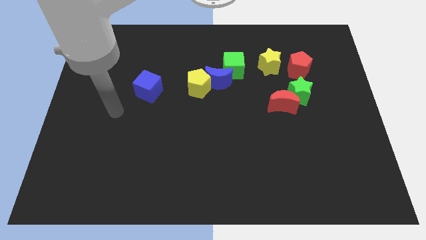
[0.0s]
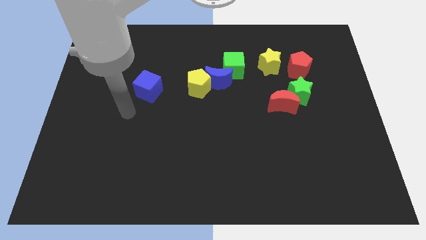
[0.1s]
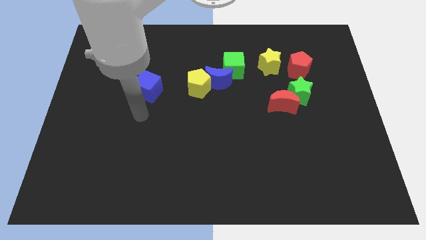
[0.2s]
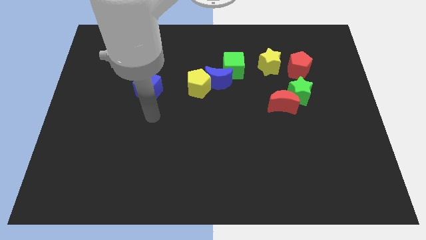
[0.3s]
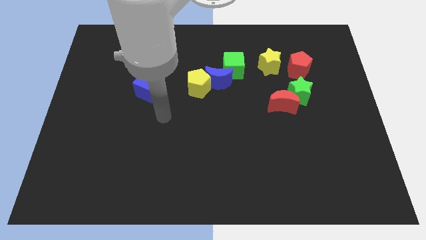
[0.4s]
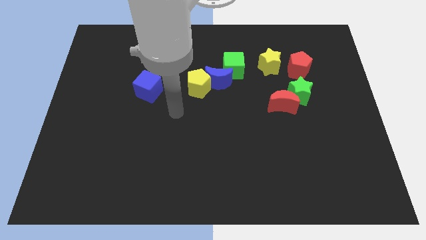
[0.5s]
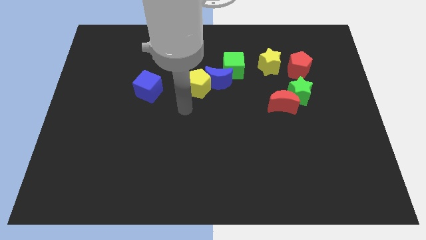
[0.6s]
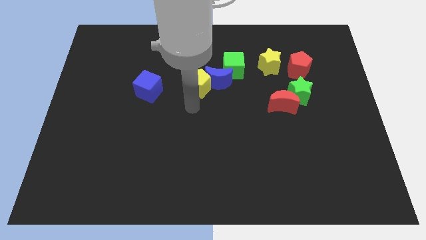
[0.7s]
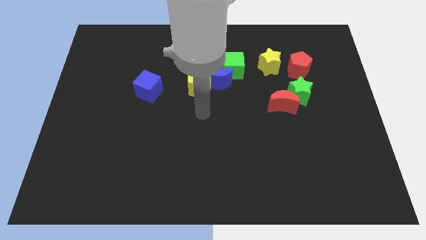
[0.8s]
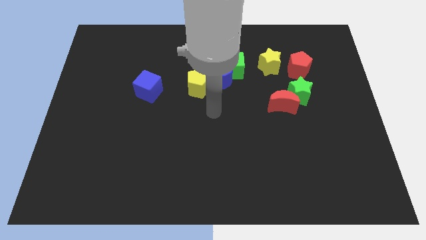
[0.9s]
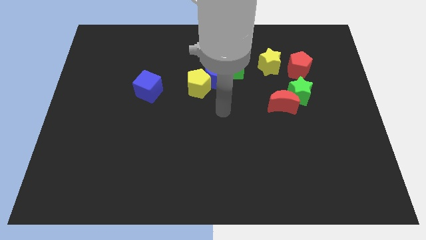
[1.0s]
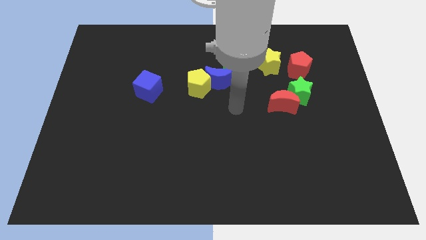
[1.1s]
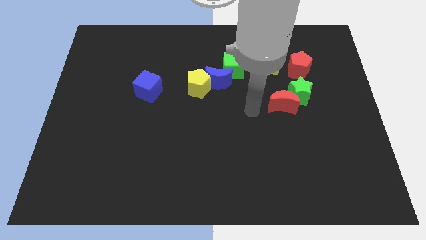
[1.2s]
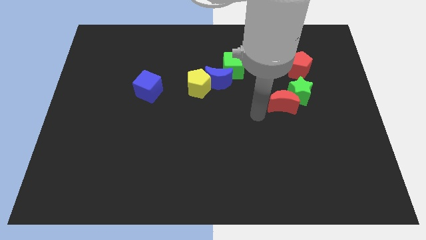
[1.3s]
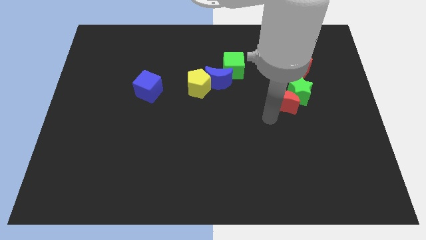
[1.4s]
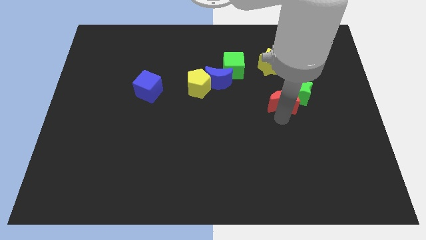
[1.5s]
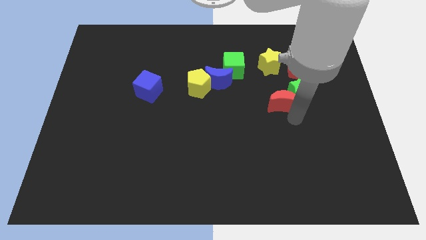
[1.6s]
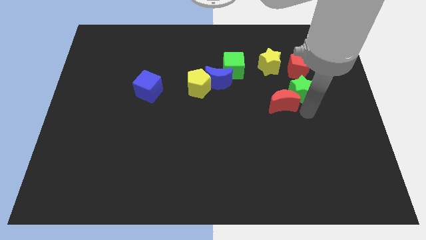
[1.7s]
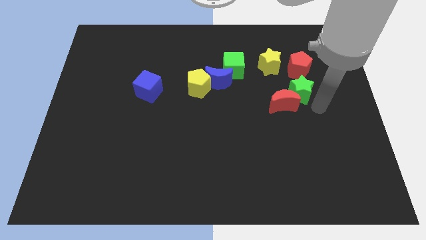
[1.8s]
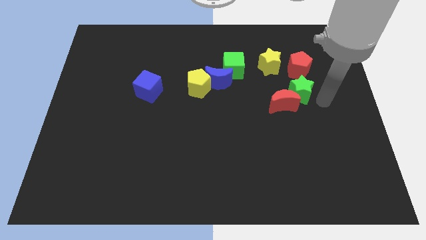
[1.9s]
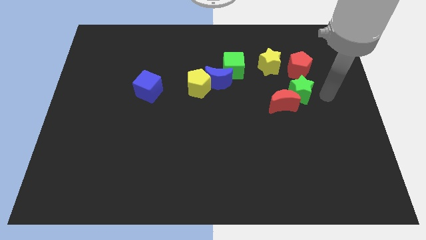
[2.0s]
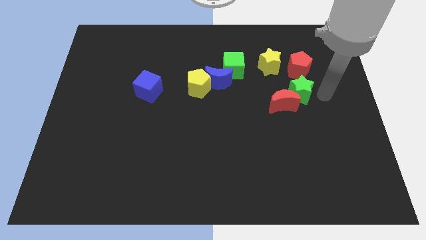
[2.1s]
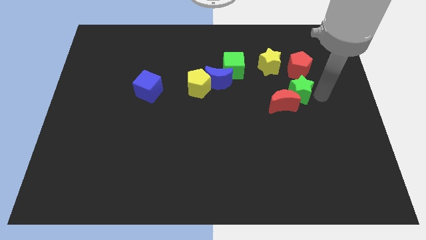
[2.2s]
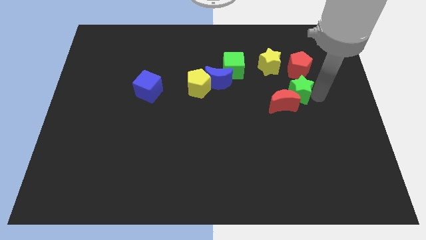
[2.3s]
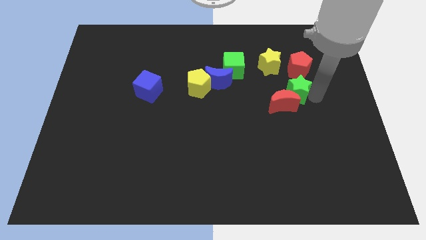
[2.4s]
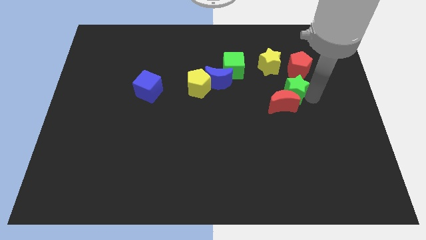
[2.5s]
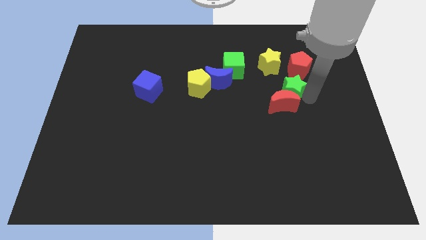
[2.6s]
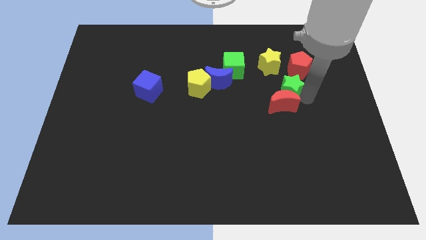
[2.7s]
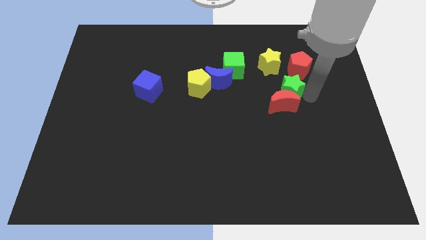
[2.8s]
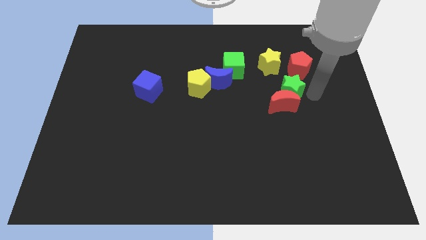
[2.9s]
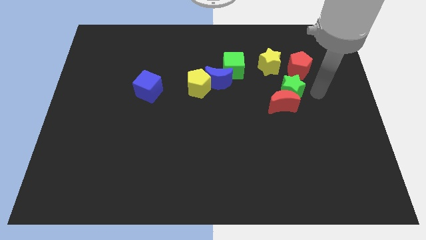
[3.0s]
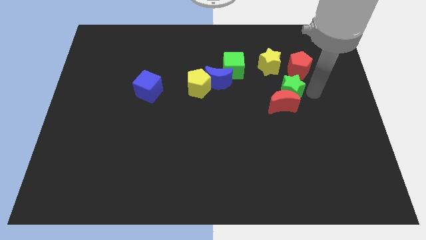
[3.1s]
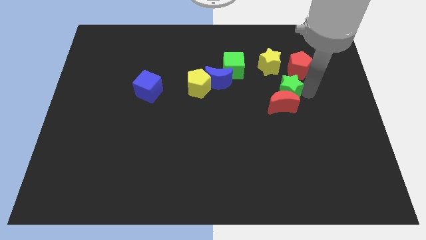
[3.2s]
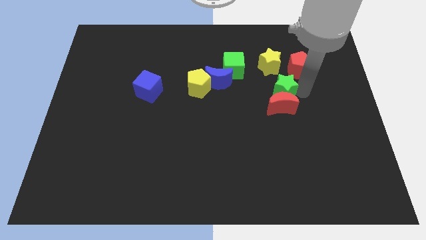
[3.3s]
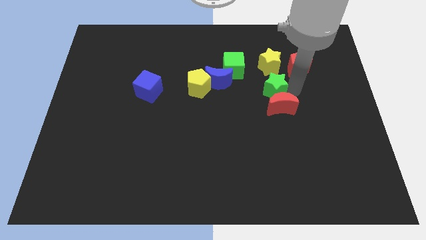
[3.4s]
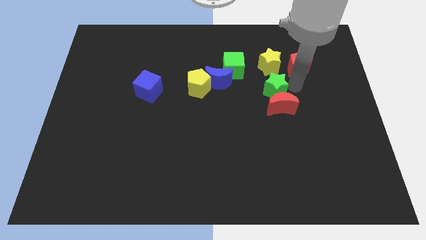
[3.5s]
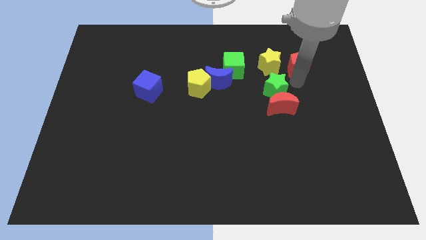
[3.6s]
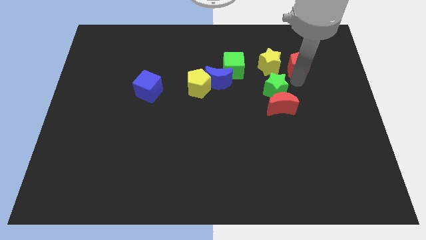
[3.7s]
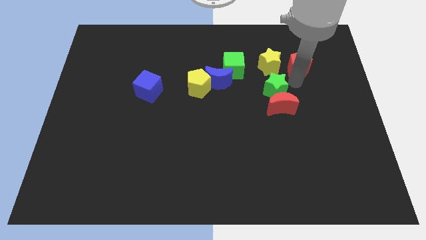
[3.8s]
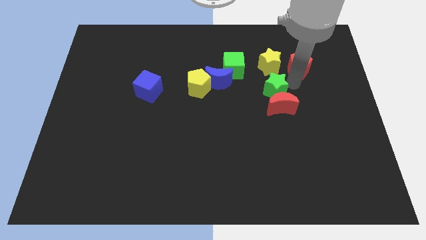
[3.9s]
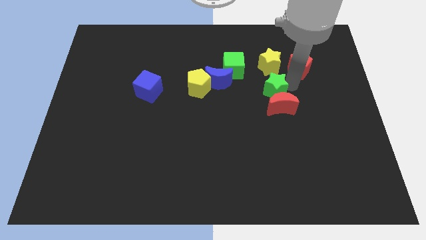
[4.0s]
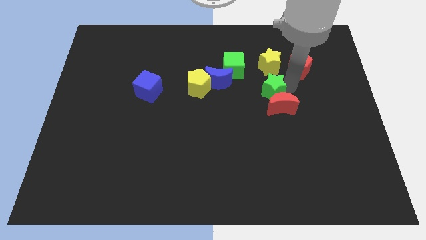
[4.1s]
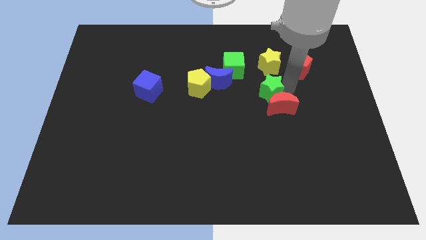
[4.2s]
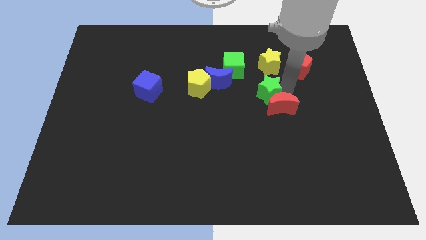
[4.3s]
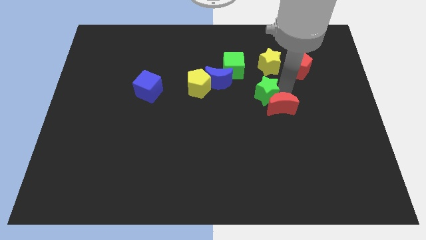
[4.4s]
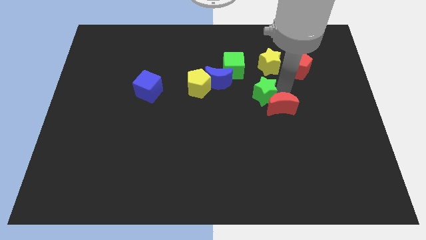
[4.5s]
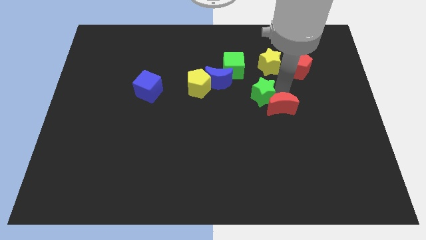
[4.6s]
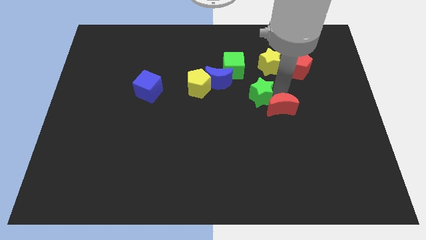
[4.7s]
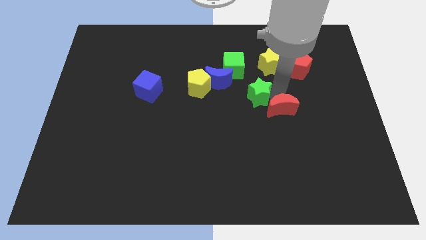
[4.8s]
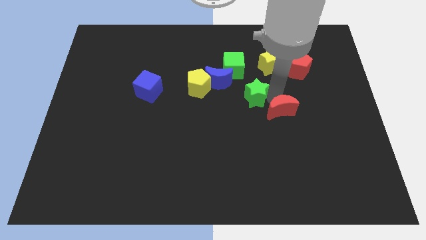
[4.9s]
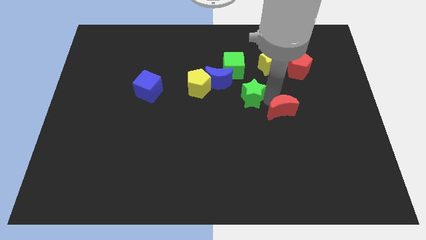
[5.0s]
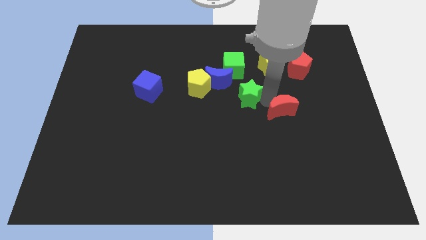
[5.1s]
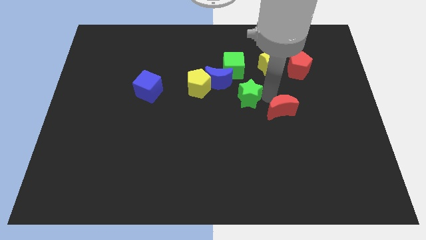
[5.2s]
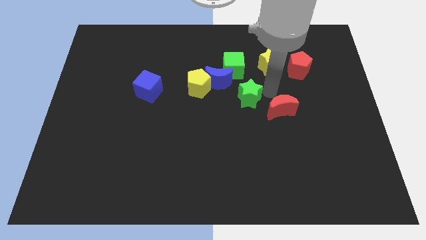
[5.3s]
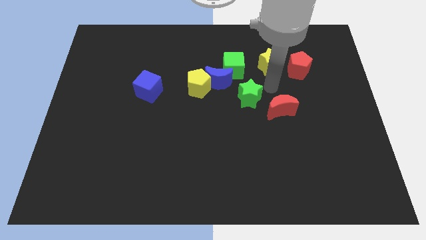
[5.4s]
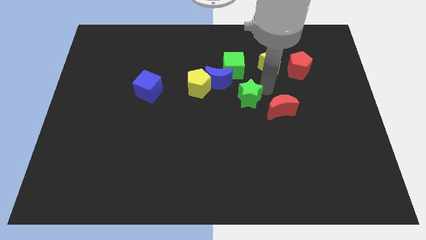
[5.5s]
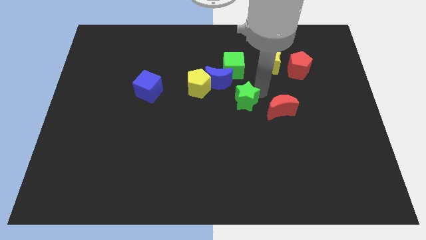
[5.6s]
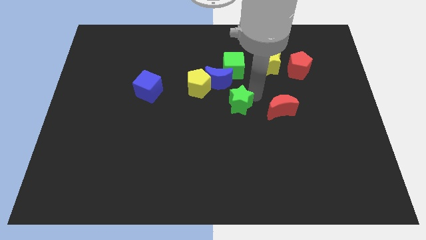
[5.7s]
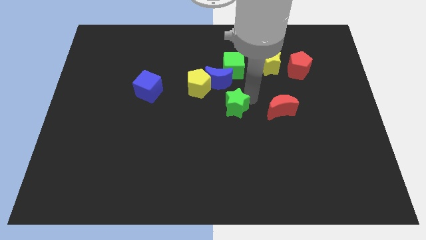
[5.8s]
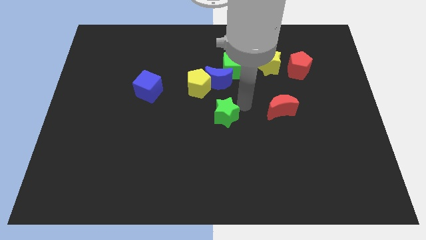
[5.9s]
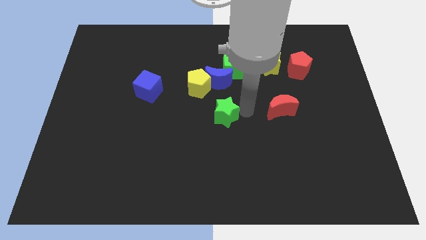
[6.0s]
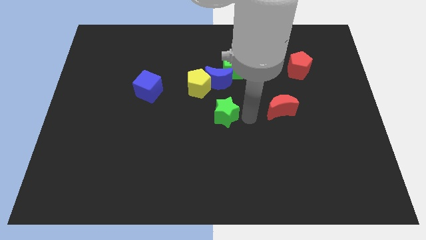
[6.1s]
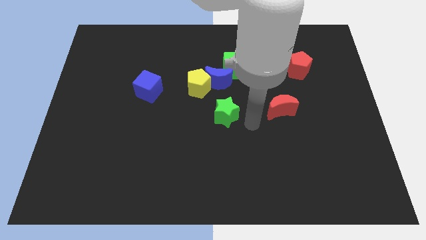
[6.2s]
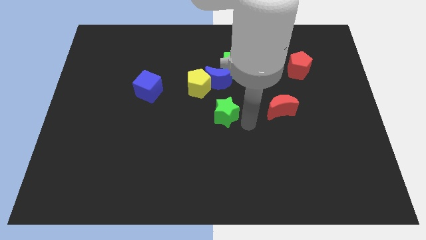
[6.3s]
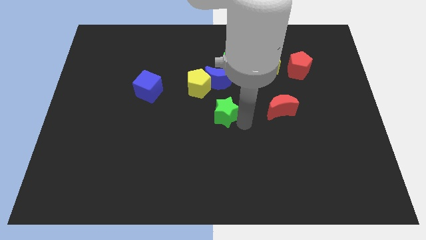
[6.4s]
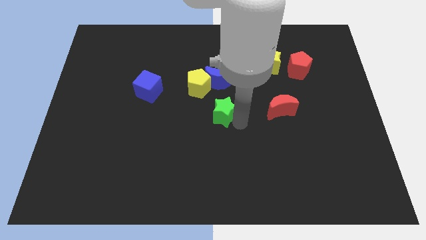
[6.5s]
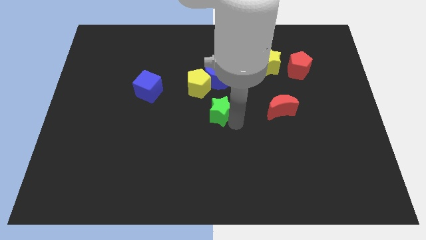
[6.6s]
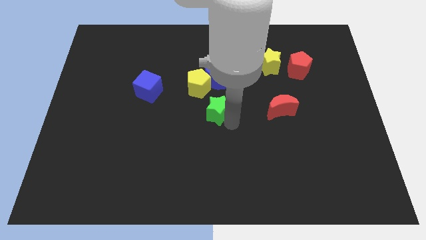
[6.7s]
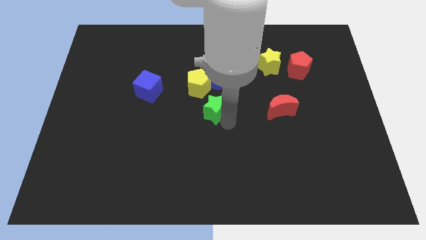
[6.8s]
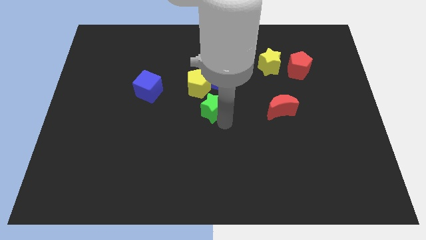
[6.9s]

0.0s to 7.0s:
slide the green star to the left

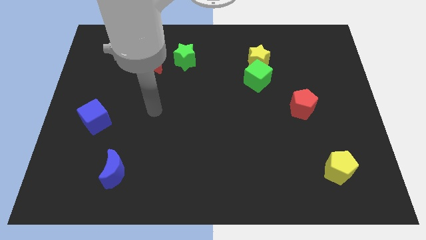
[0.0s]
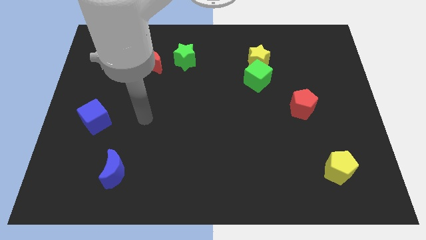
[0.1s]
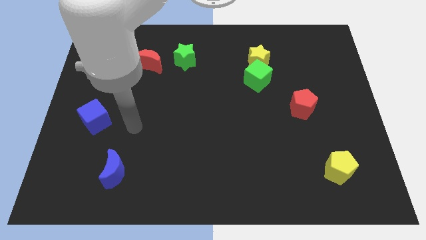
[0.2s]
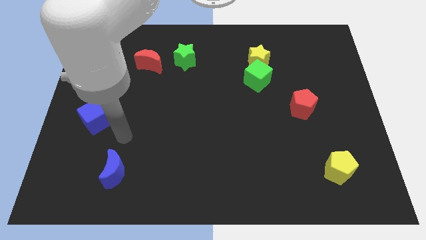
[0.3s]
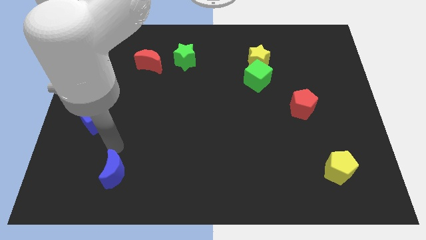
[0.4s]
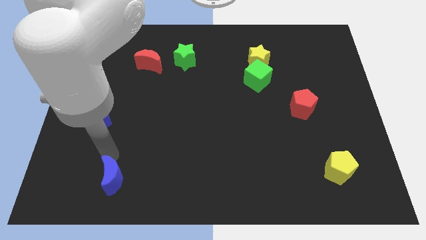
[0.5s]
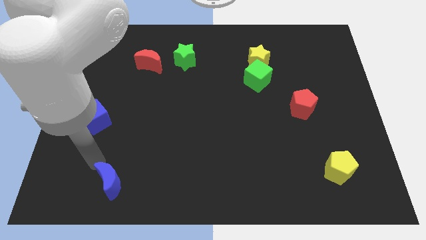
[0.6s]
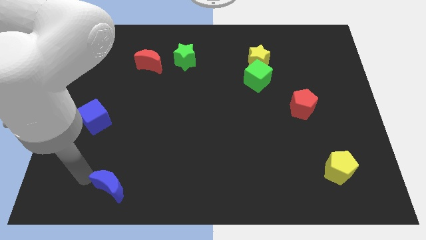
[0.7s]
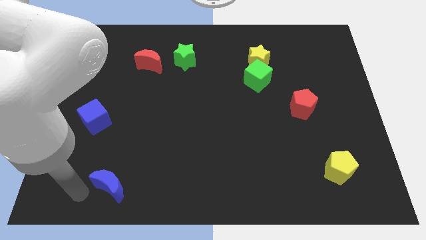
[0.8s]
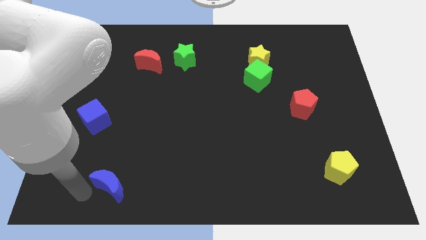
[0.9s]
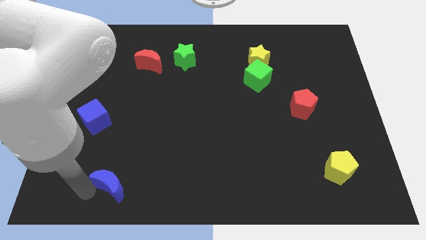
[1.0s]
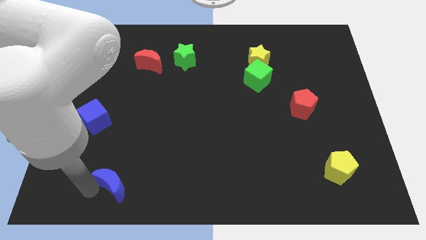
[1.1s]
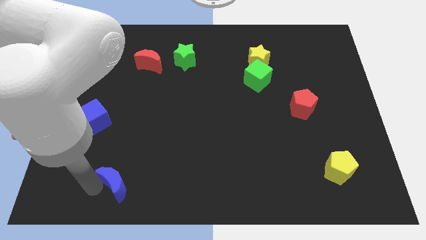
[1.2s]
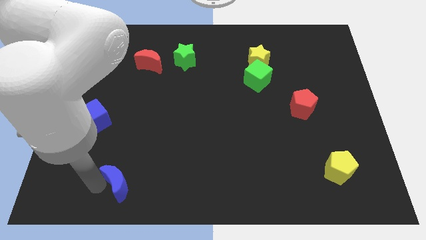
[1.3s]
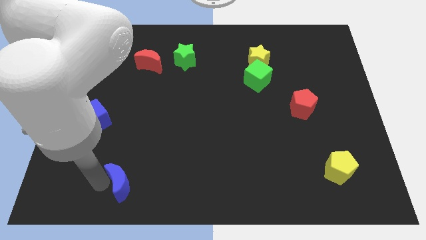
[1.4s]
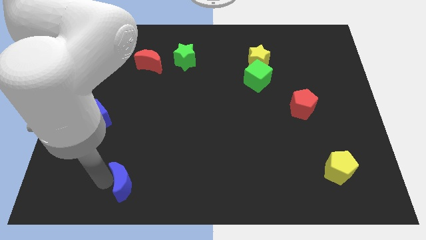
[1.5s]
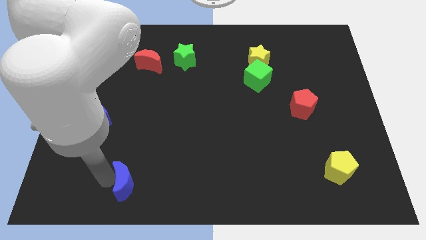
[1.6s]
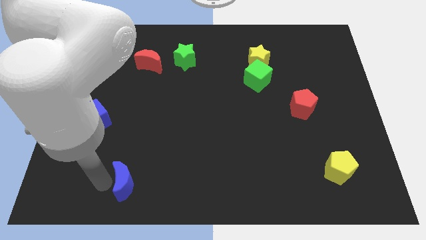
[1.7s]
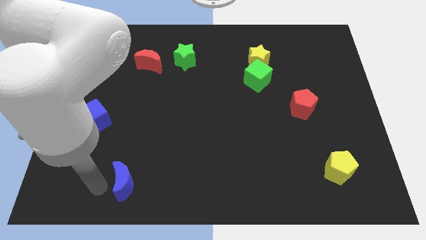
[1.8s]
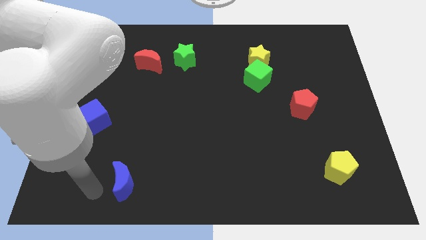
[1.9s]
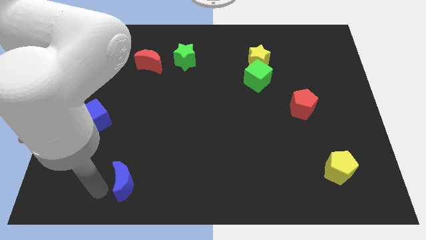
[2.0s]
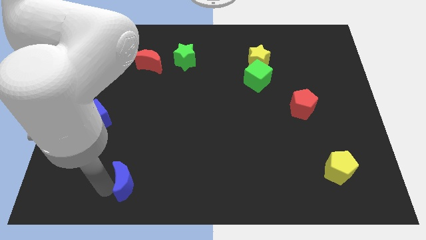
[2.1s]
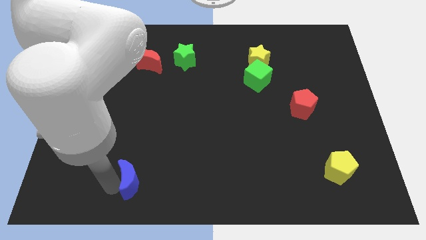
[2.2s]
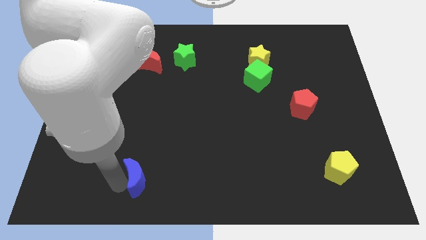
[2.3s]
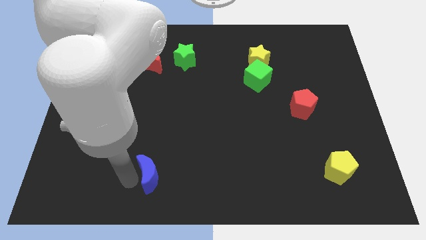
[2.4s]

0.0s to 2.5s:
slide the blue moon slightly right
